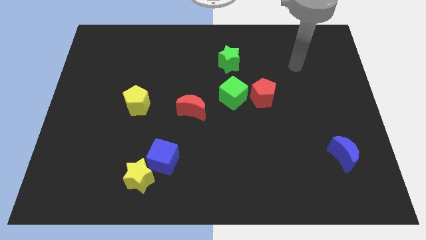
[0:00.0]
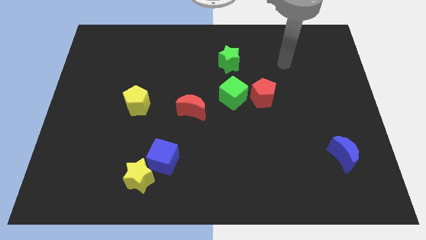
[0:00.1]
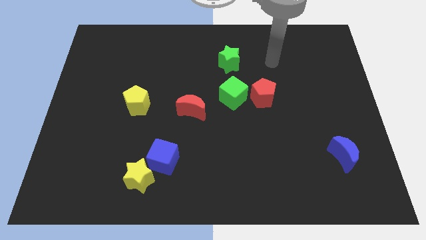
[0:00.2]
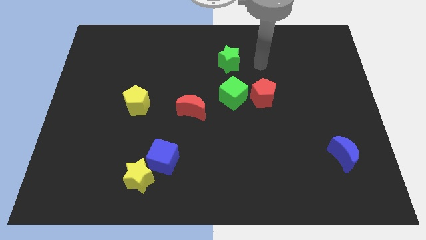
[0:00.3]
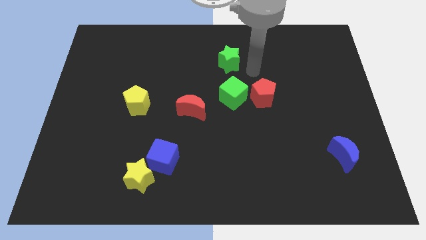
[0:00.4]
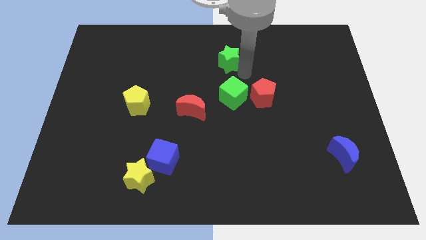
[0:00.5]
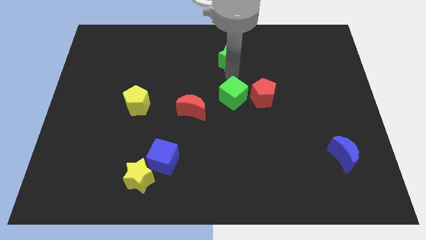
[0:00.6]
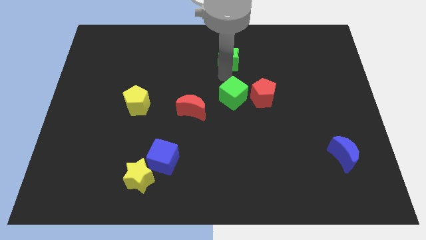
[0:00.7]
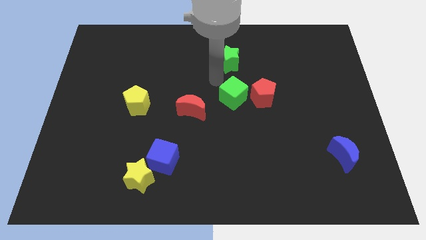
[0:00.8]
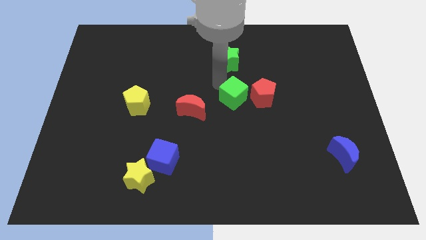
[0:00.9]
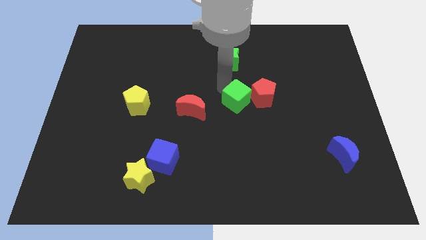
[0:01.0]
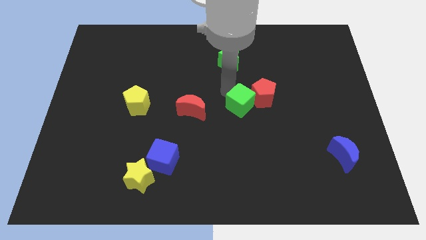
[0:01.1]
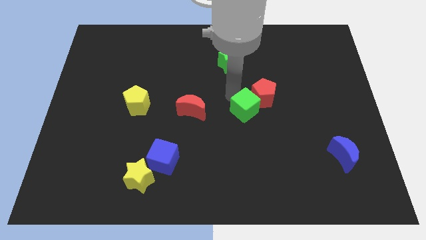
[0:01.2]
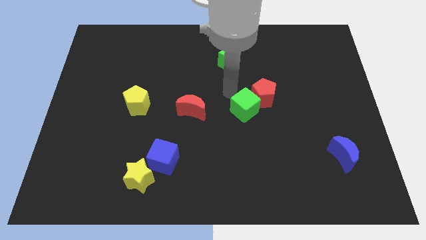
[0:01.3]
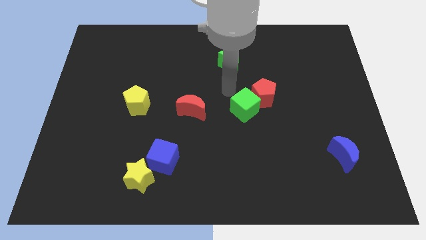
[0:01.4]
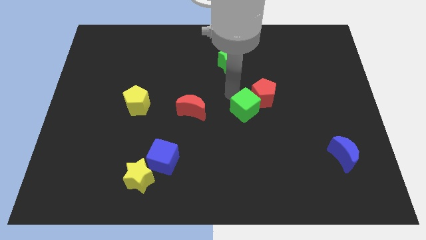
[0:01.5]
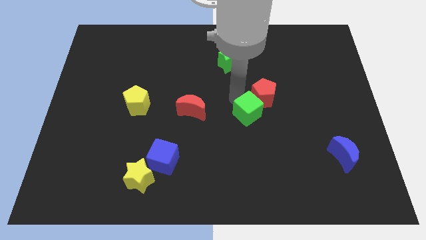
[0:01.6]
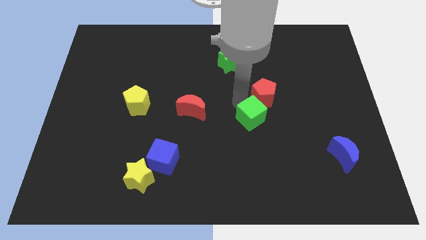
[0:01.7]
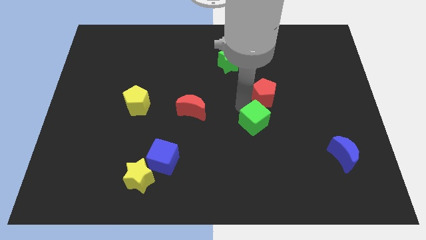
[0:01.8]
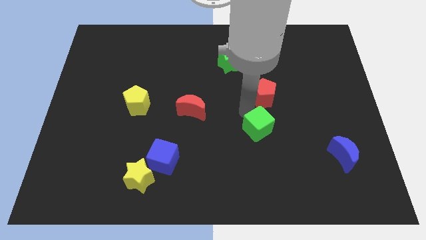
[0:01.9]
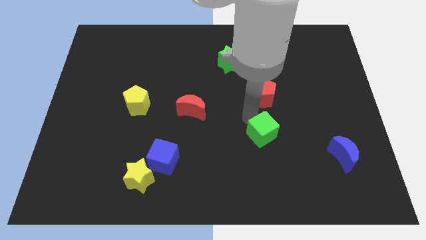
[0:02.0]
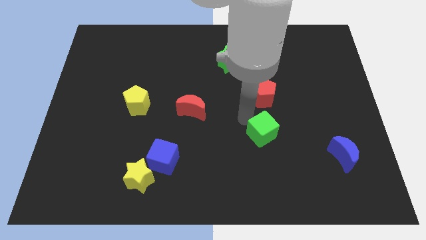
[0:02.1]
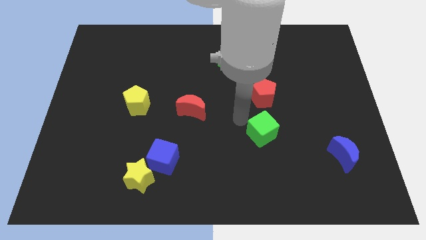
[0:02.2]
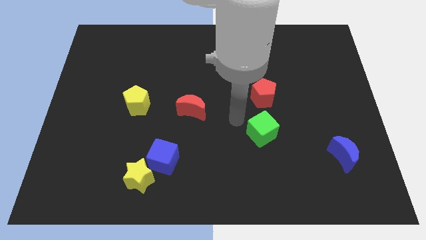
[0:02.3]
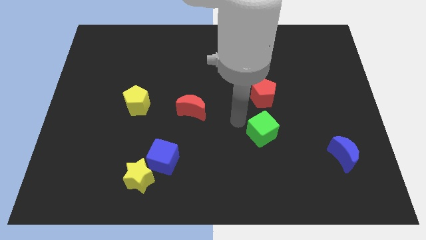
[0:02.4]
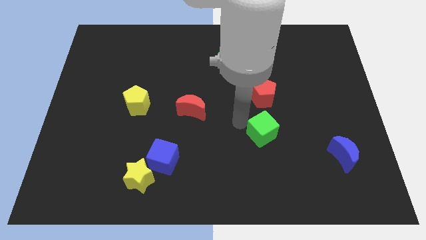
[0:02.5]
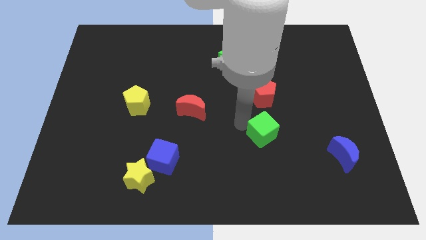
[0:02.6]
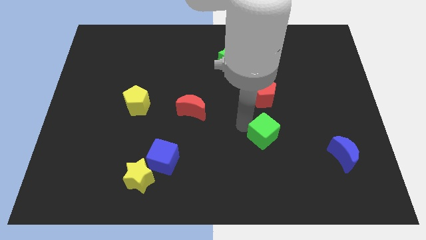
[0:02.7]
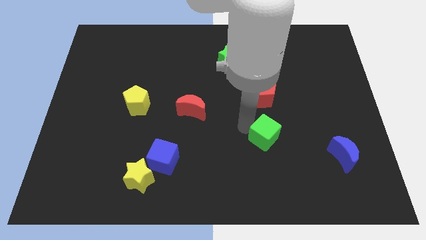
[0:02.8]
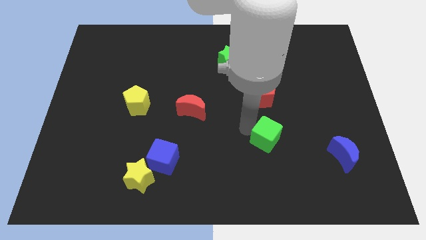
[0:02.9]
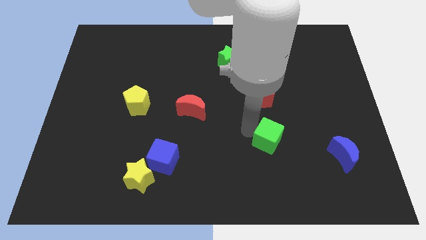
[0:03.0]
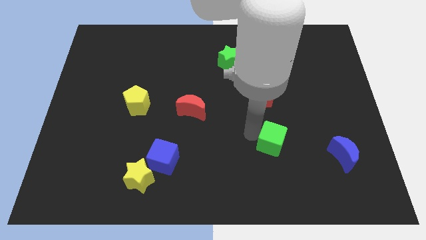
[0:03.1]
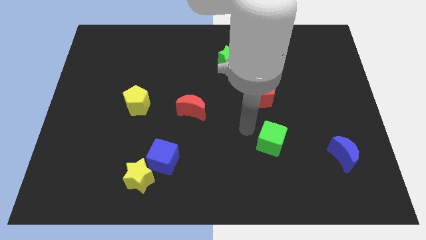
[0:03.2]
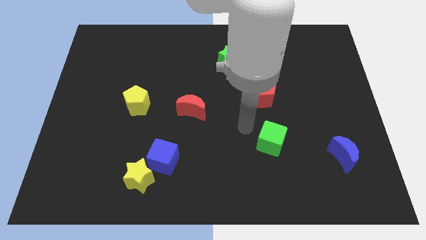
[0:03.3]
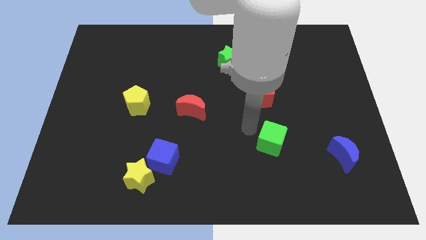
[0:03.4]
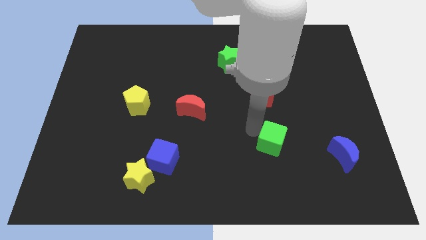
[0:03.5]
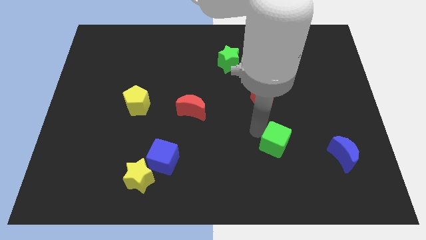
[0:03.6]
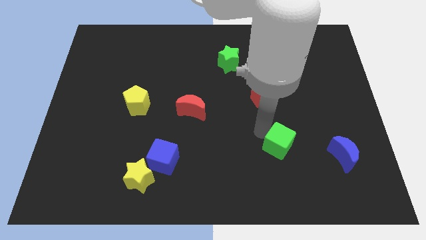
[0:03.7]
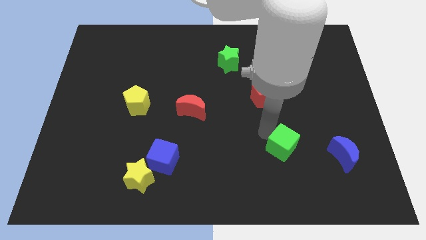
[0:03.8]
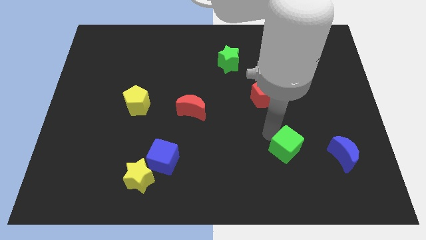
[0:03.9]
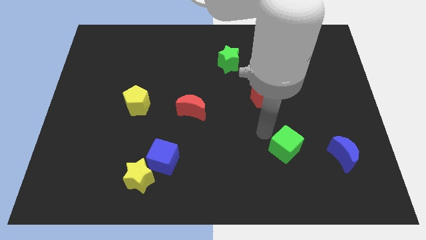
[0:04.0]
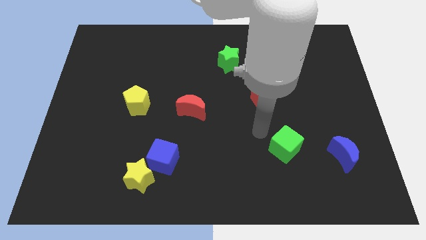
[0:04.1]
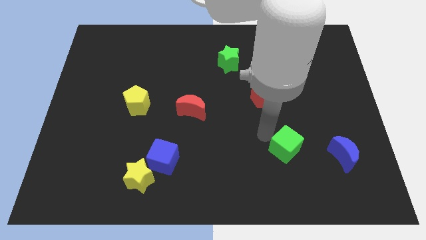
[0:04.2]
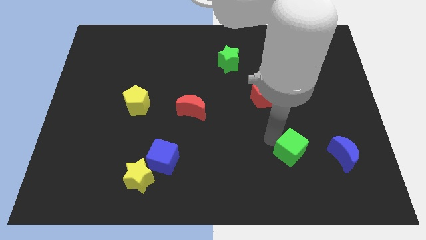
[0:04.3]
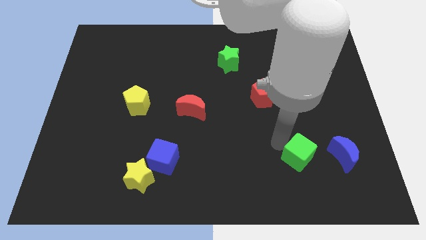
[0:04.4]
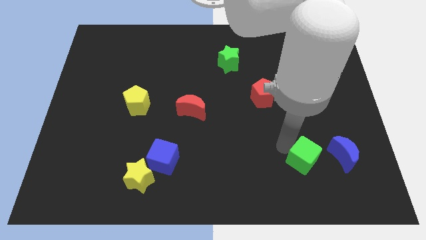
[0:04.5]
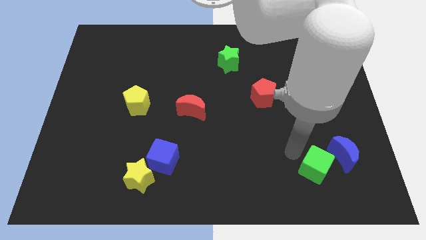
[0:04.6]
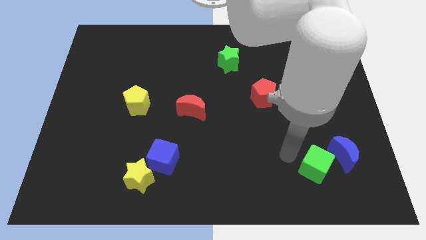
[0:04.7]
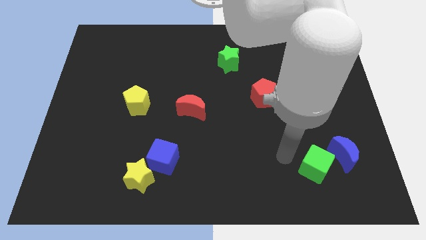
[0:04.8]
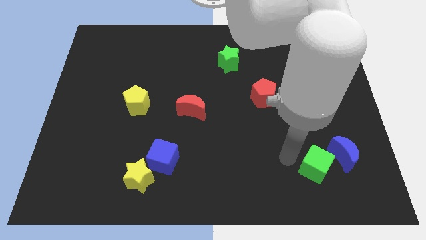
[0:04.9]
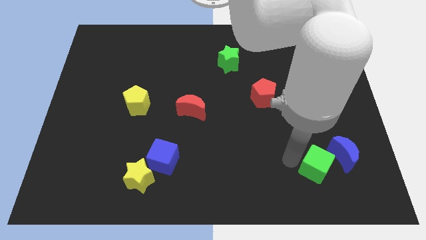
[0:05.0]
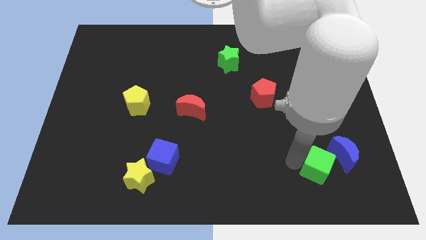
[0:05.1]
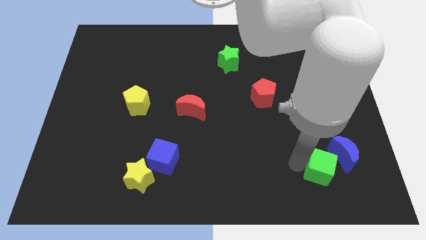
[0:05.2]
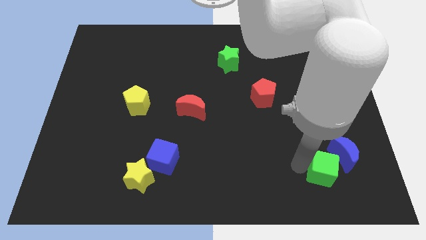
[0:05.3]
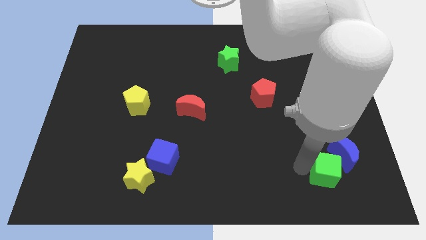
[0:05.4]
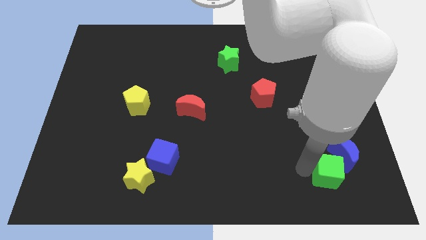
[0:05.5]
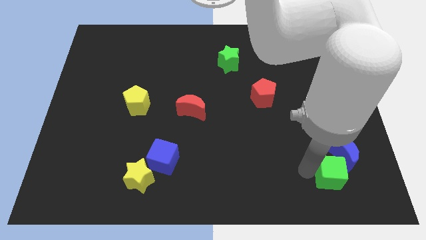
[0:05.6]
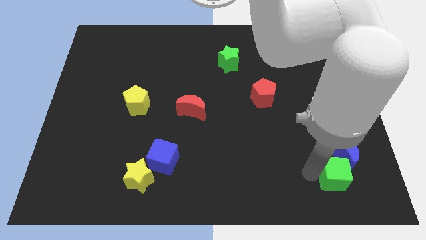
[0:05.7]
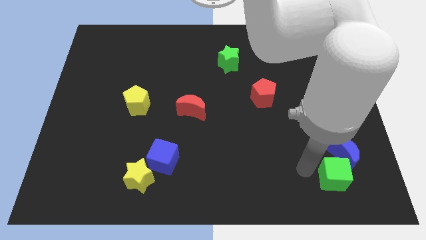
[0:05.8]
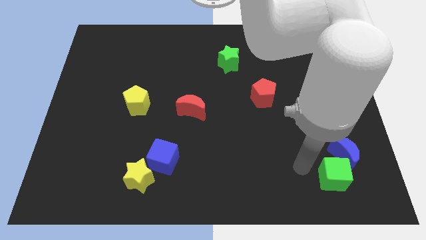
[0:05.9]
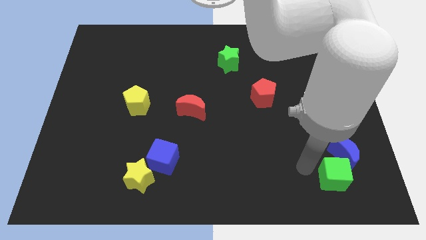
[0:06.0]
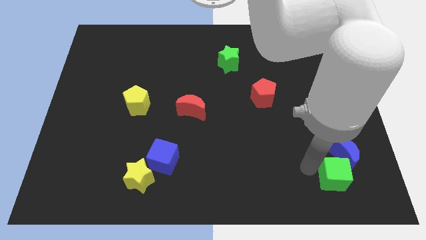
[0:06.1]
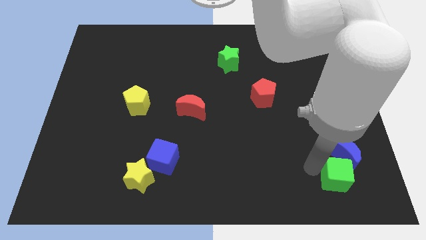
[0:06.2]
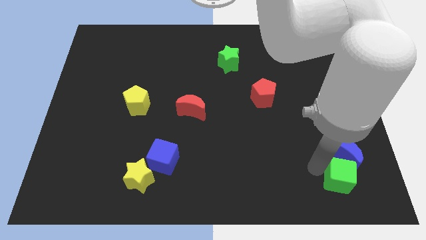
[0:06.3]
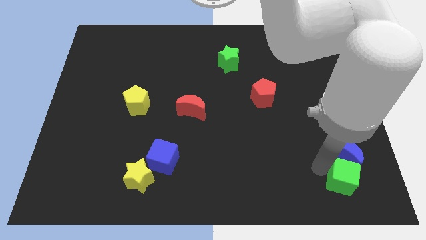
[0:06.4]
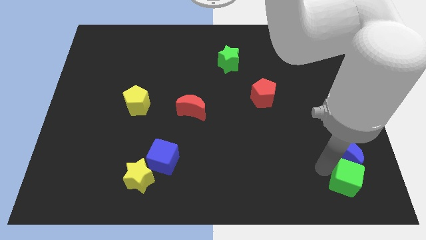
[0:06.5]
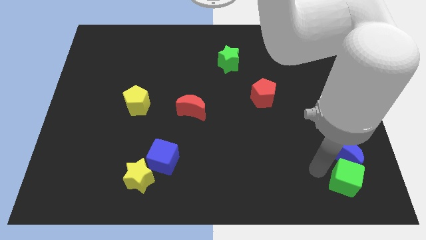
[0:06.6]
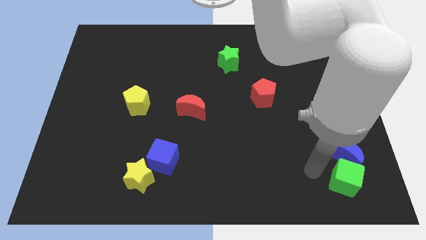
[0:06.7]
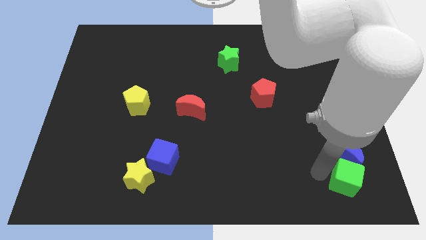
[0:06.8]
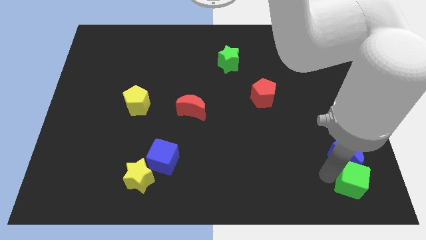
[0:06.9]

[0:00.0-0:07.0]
move the green cube to the bottom right
